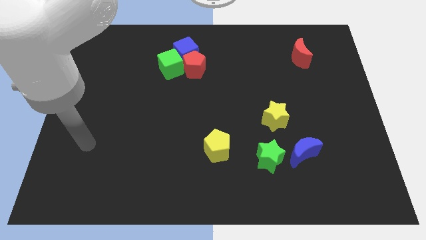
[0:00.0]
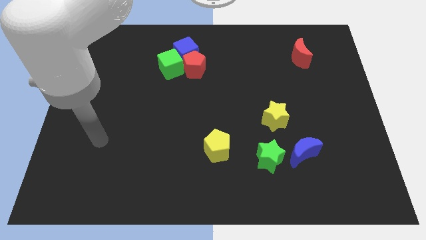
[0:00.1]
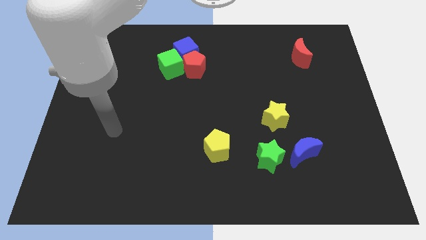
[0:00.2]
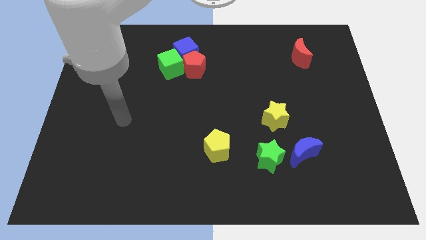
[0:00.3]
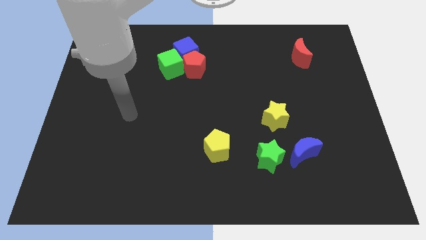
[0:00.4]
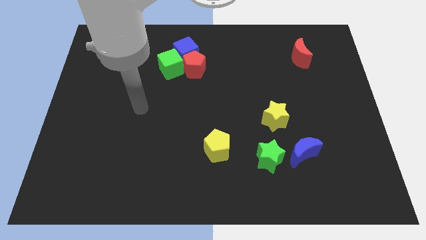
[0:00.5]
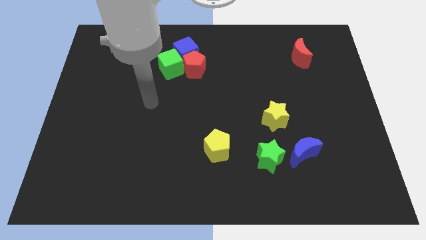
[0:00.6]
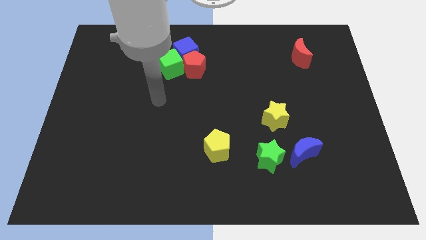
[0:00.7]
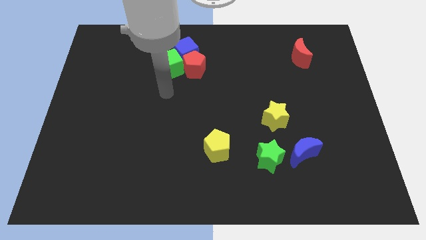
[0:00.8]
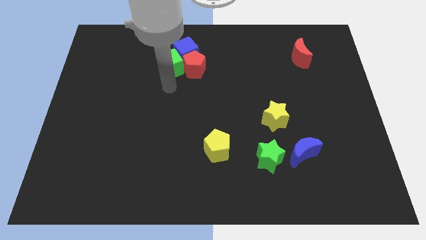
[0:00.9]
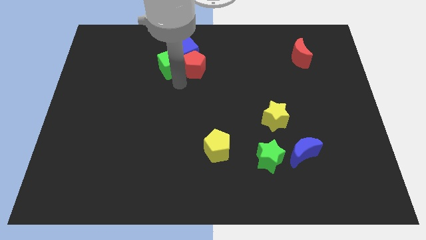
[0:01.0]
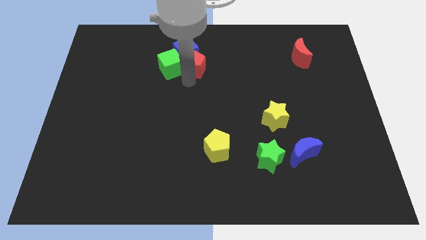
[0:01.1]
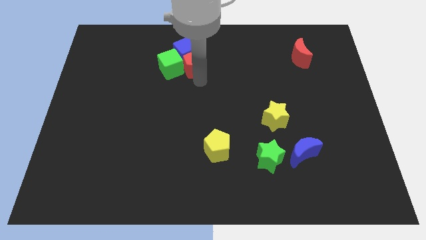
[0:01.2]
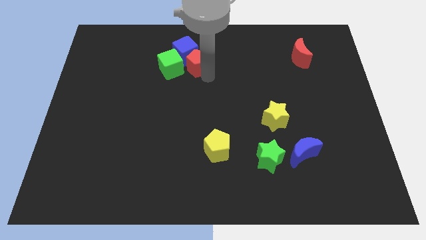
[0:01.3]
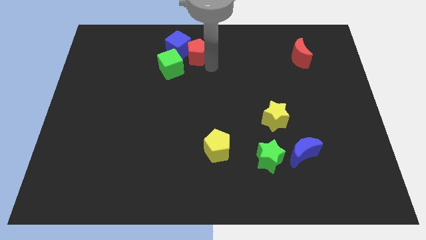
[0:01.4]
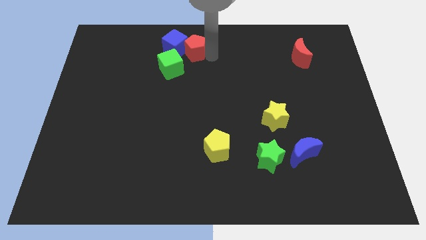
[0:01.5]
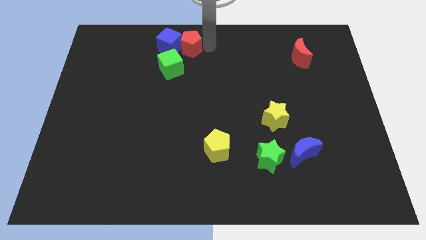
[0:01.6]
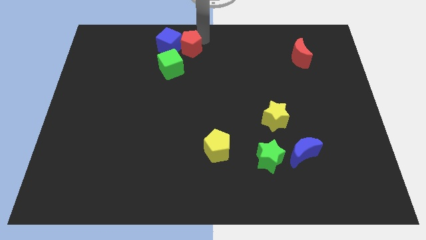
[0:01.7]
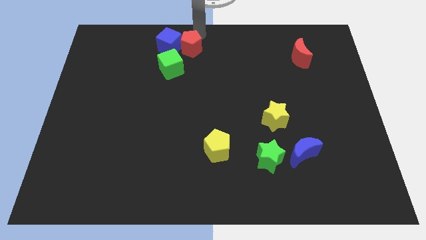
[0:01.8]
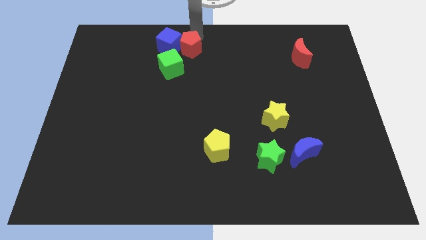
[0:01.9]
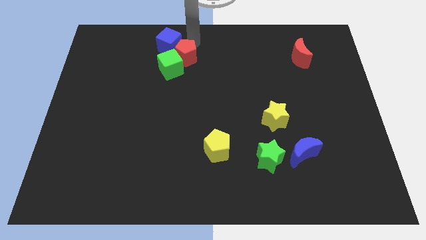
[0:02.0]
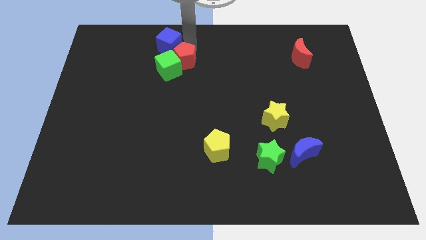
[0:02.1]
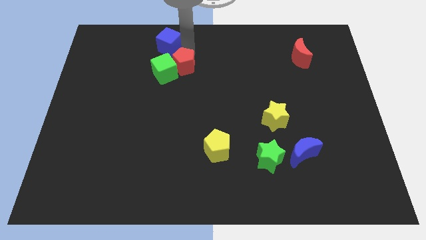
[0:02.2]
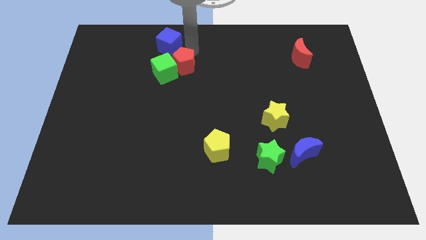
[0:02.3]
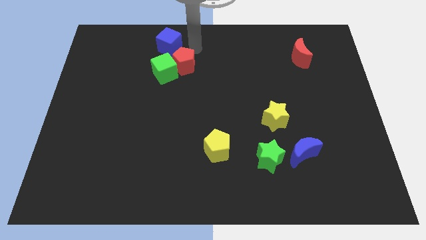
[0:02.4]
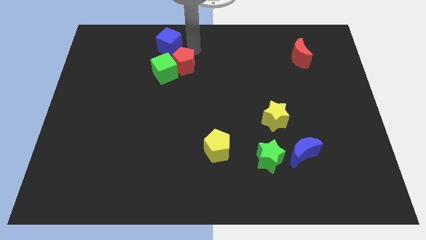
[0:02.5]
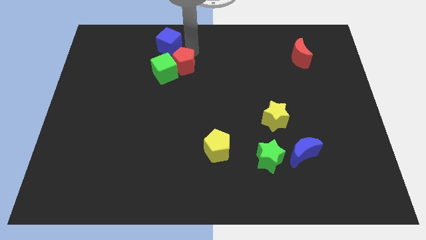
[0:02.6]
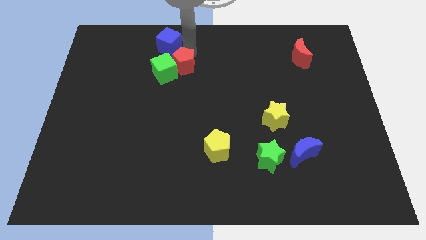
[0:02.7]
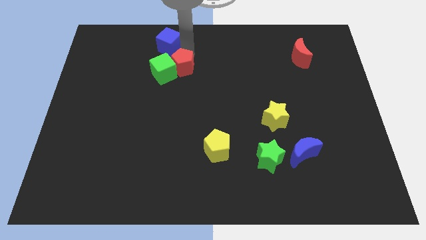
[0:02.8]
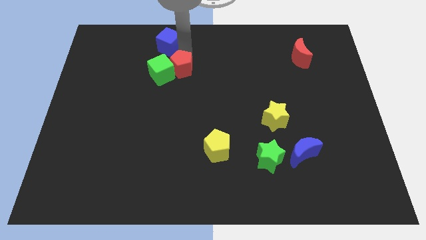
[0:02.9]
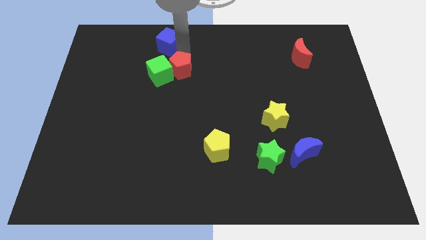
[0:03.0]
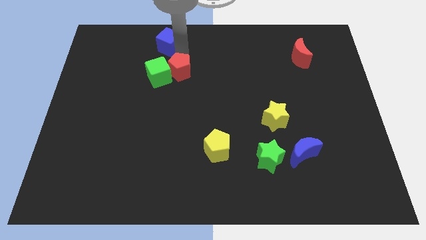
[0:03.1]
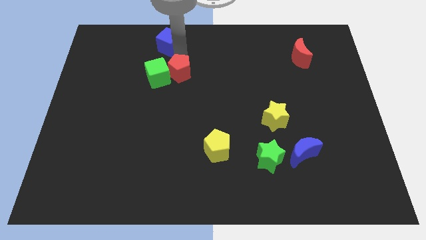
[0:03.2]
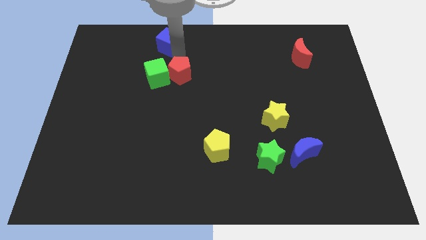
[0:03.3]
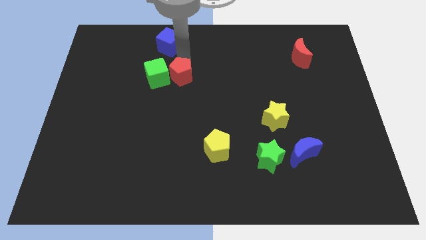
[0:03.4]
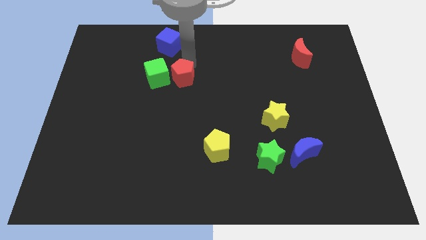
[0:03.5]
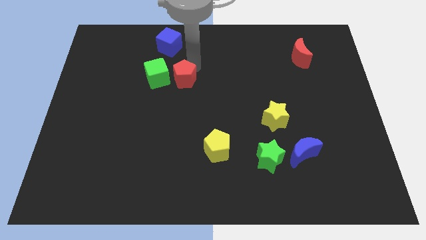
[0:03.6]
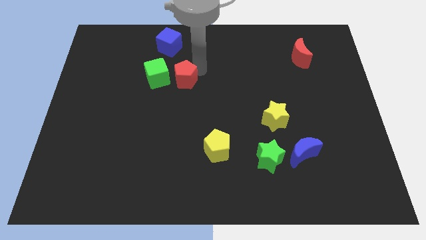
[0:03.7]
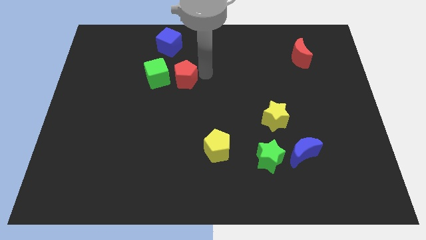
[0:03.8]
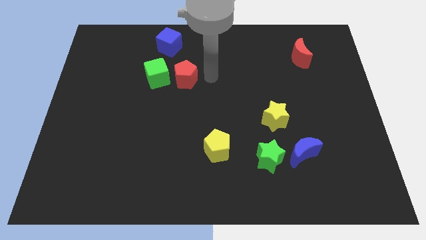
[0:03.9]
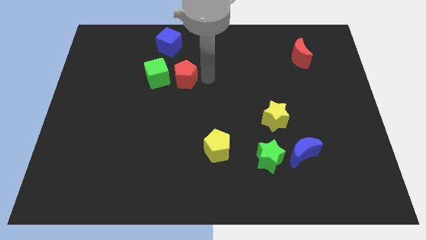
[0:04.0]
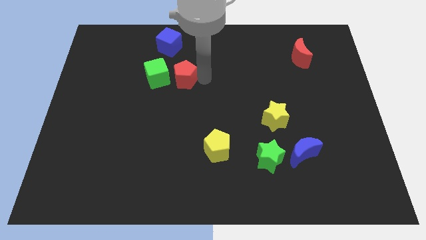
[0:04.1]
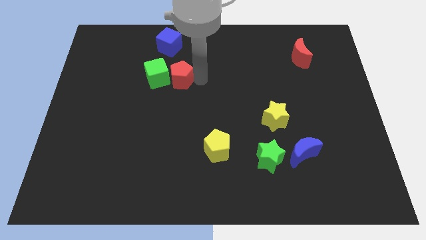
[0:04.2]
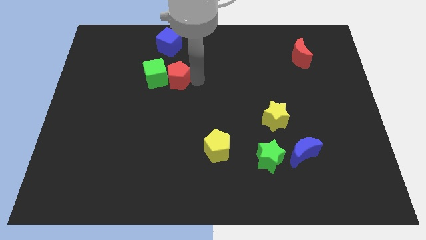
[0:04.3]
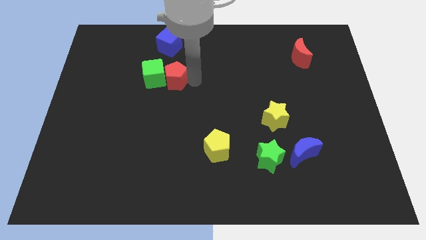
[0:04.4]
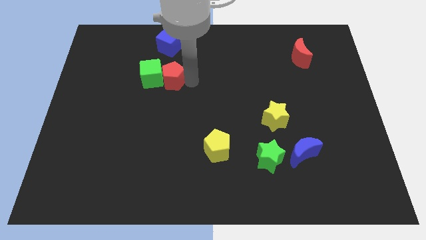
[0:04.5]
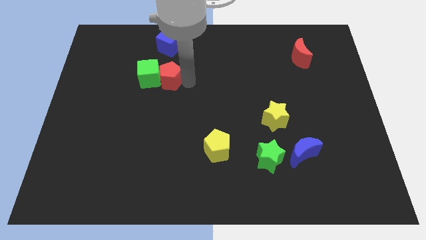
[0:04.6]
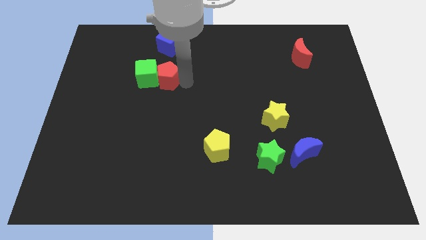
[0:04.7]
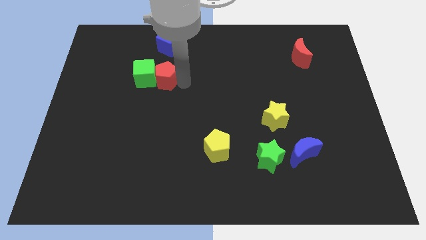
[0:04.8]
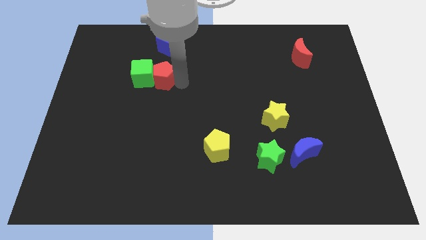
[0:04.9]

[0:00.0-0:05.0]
move the red pentagon somewhat left

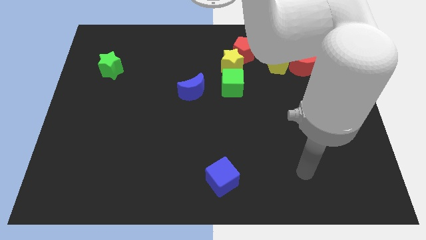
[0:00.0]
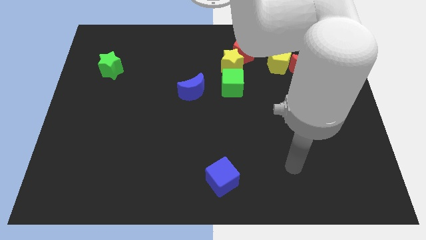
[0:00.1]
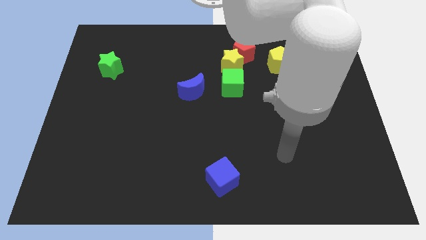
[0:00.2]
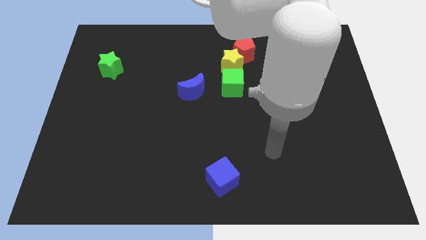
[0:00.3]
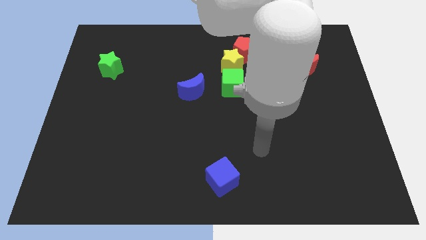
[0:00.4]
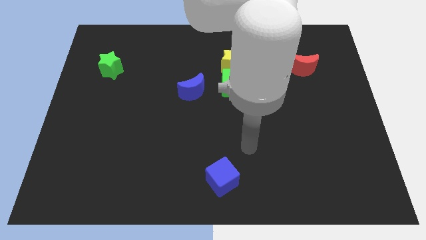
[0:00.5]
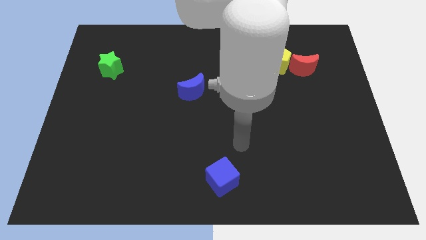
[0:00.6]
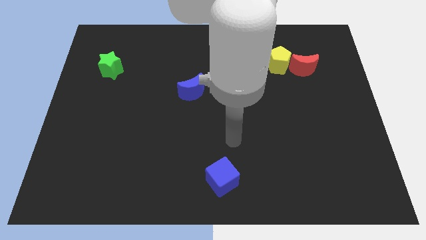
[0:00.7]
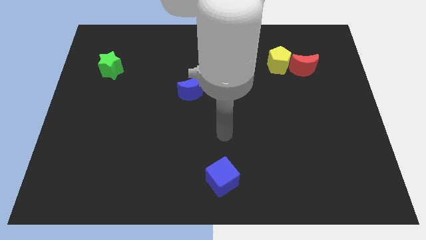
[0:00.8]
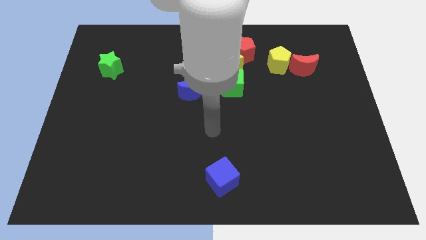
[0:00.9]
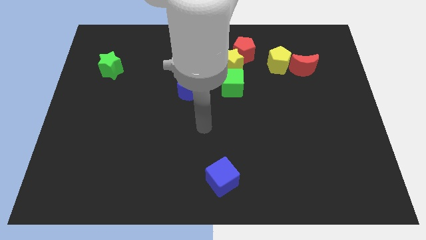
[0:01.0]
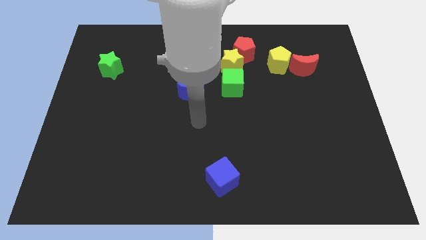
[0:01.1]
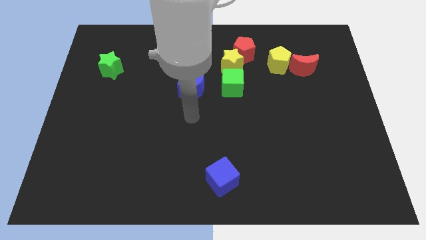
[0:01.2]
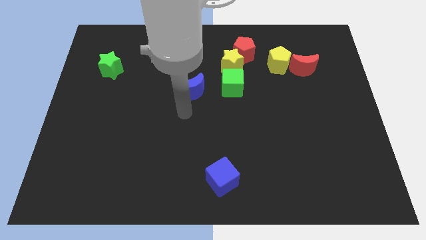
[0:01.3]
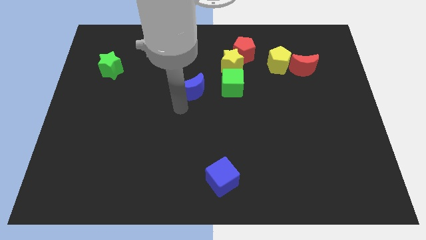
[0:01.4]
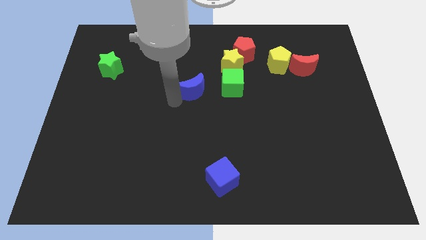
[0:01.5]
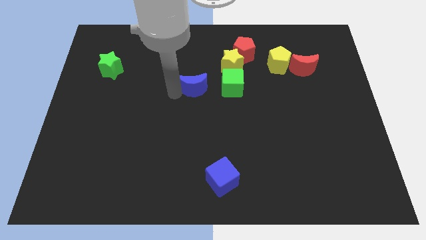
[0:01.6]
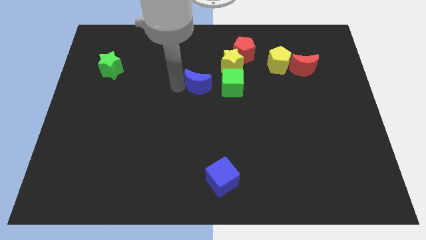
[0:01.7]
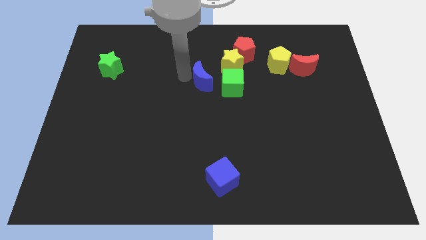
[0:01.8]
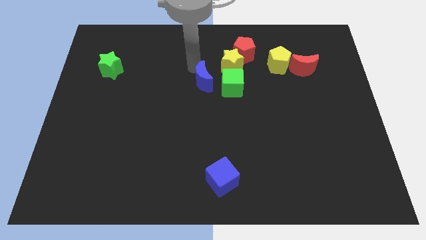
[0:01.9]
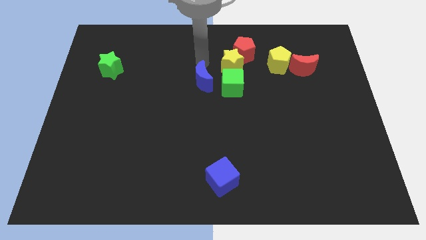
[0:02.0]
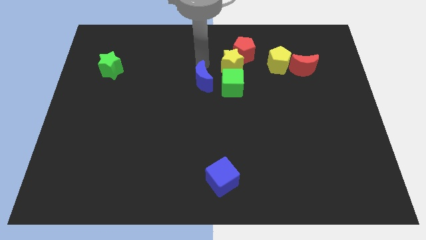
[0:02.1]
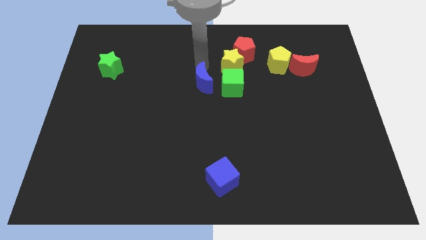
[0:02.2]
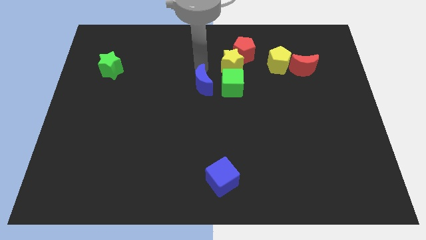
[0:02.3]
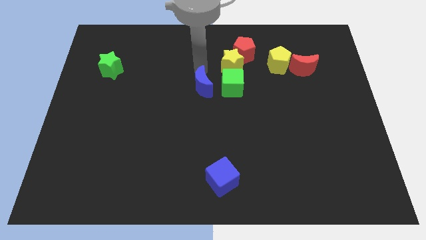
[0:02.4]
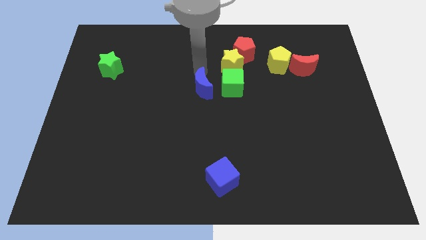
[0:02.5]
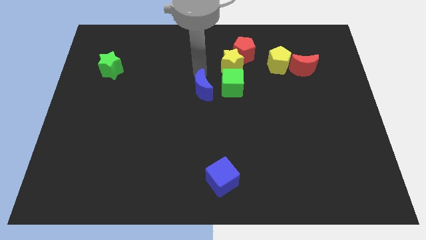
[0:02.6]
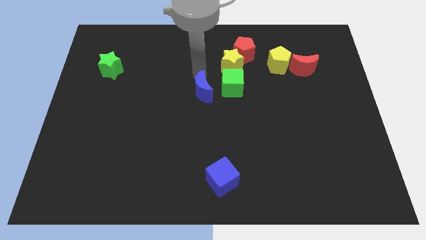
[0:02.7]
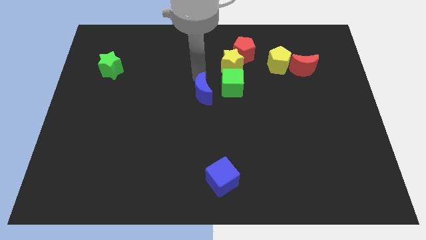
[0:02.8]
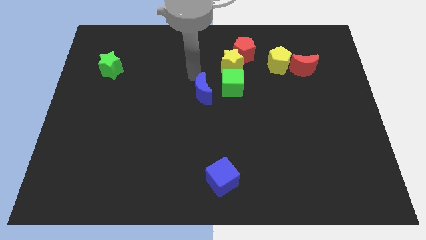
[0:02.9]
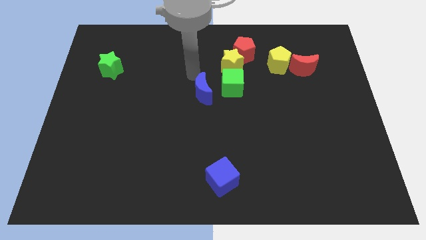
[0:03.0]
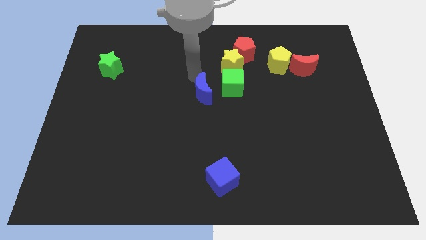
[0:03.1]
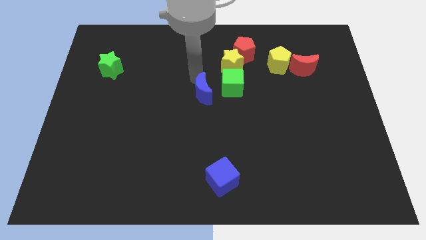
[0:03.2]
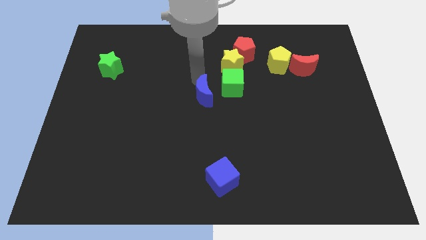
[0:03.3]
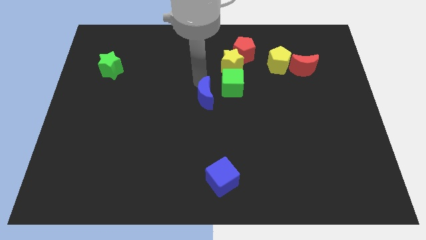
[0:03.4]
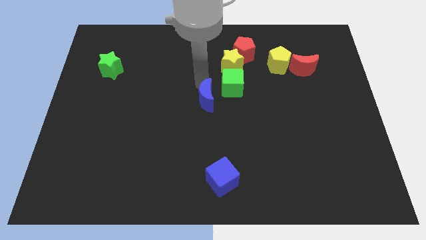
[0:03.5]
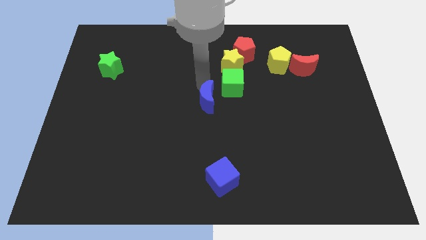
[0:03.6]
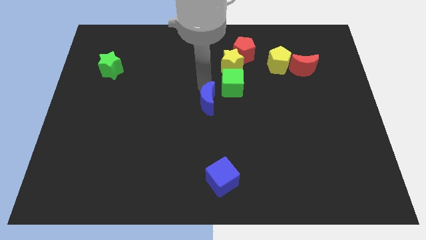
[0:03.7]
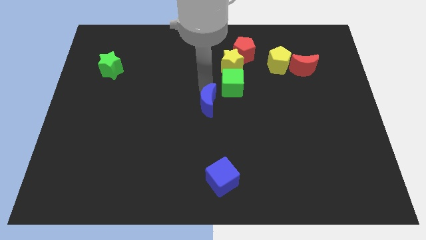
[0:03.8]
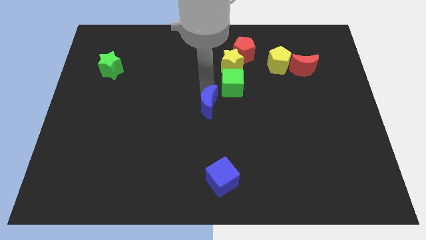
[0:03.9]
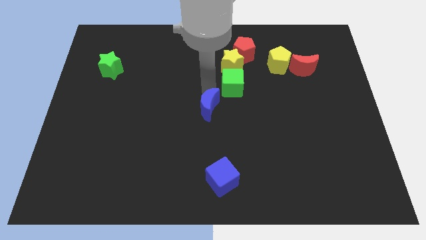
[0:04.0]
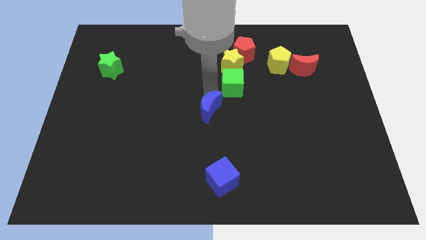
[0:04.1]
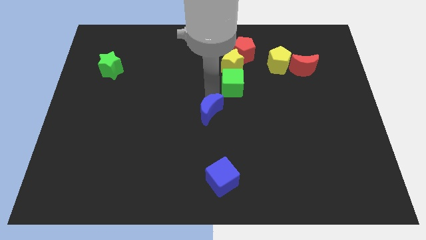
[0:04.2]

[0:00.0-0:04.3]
slightly slide the blue moon downwards and to the right diagonally
